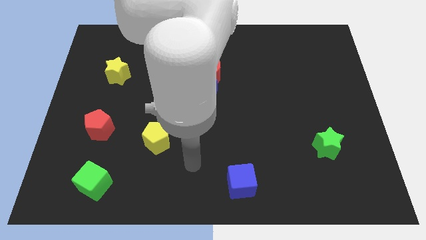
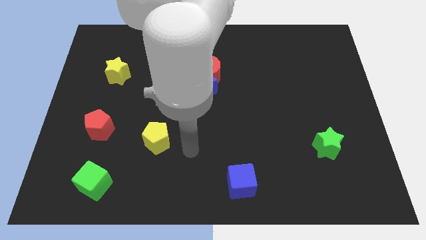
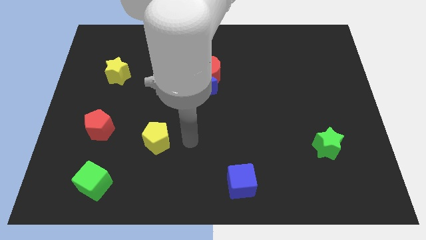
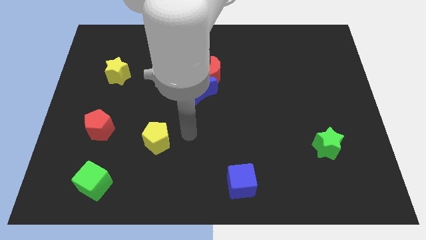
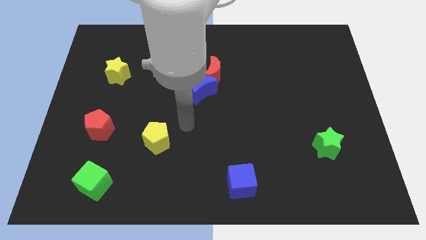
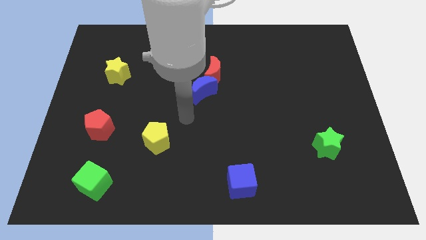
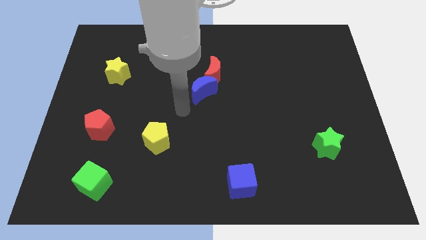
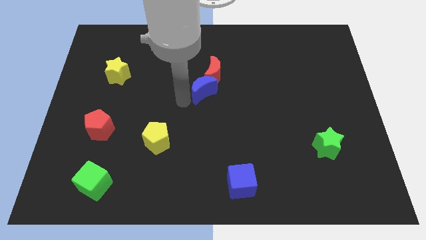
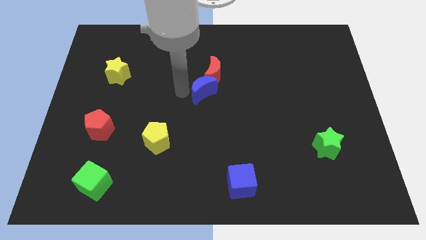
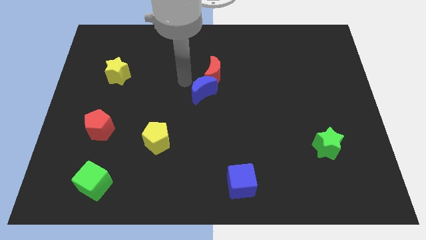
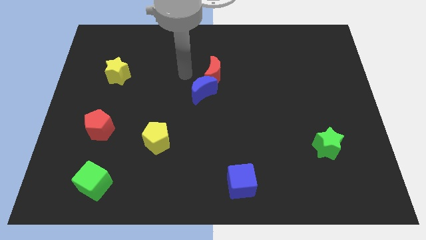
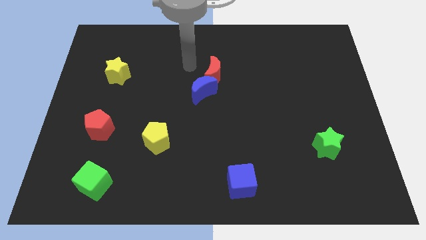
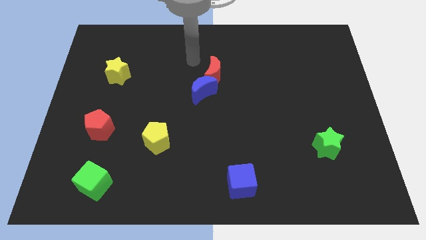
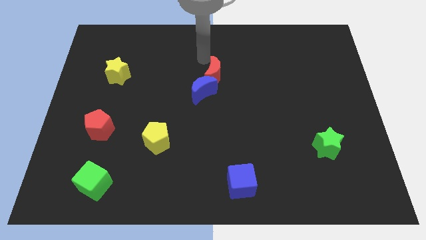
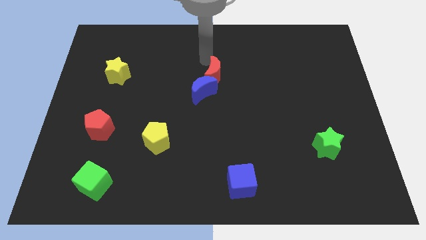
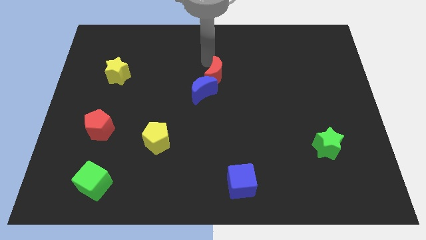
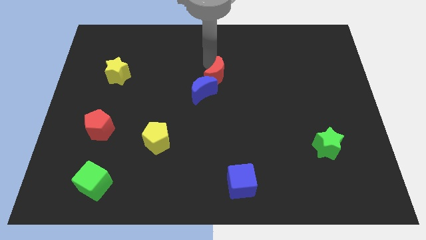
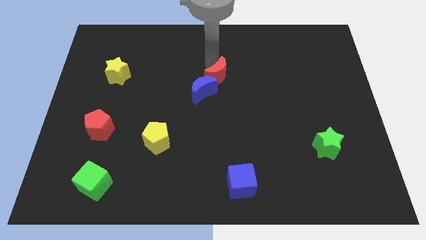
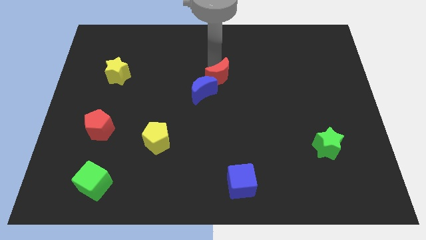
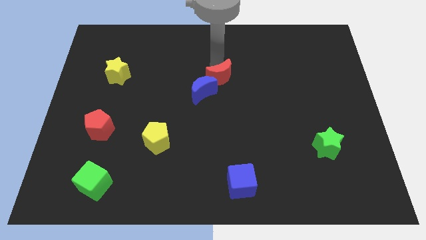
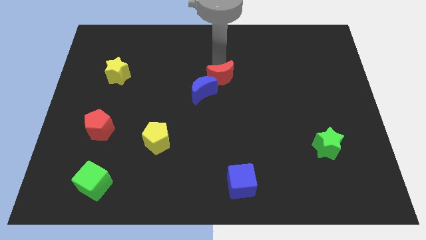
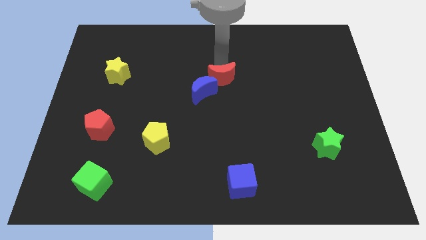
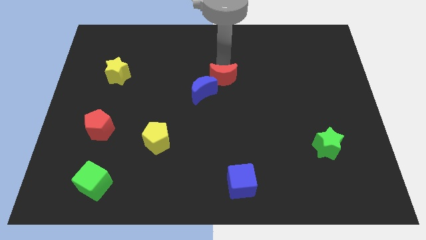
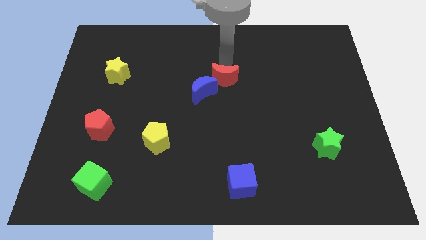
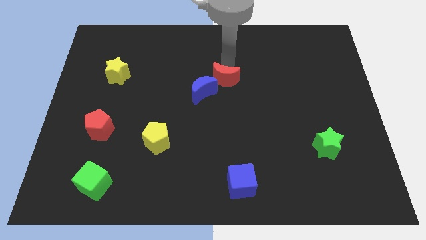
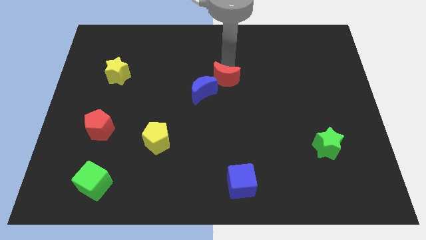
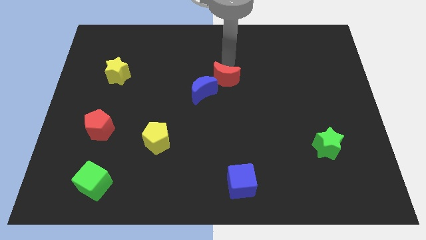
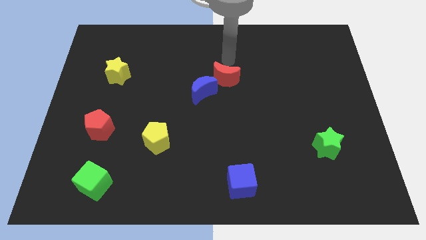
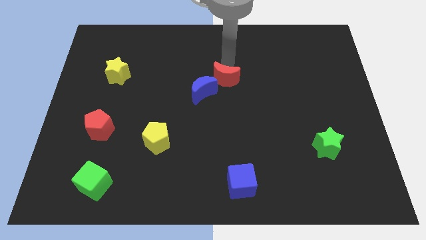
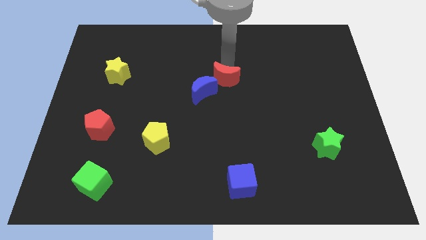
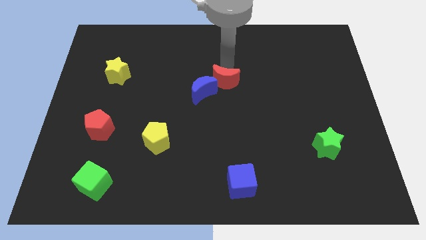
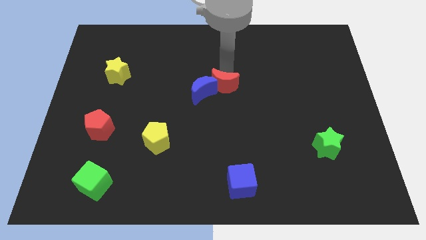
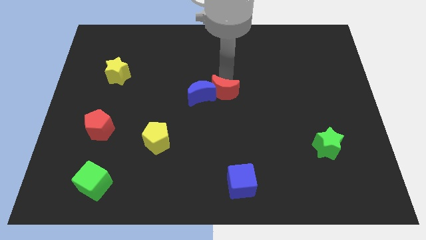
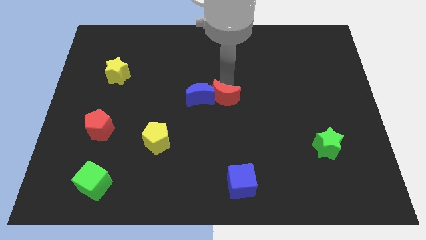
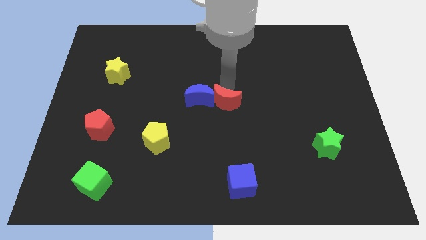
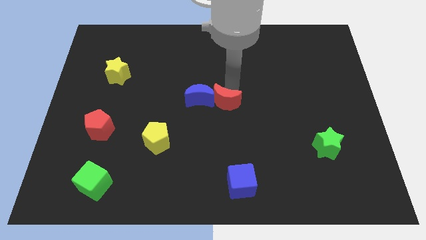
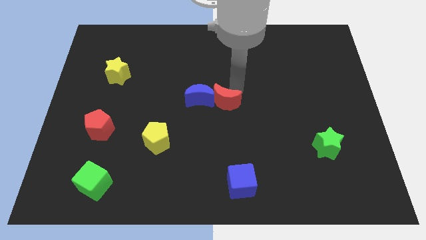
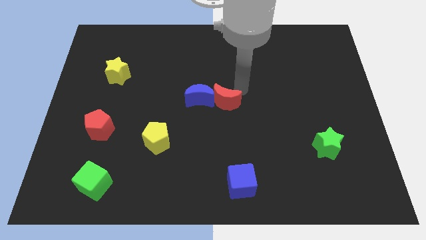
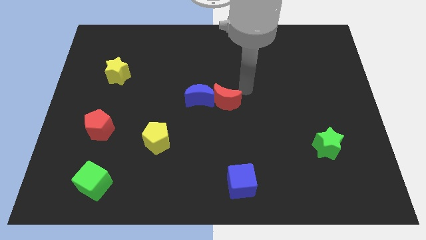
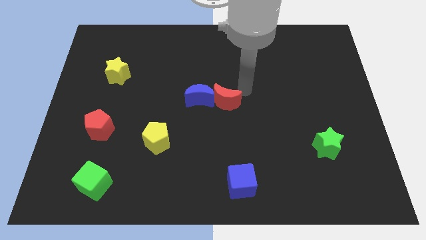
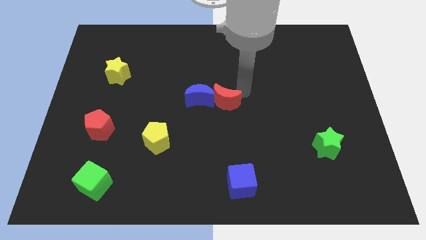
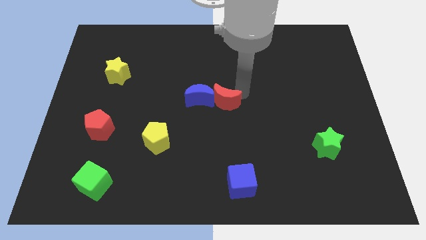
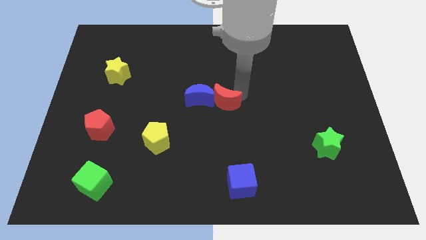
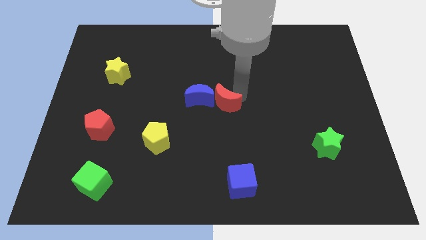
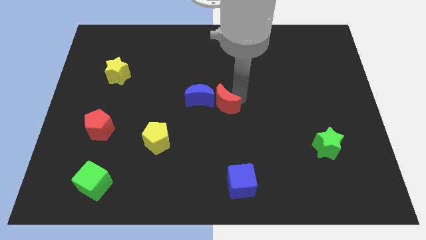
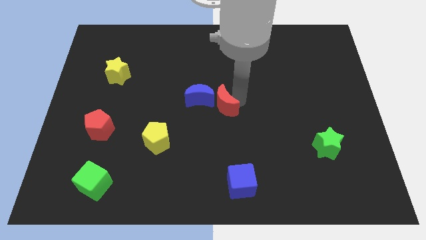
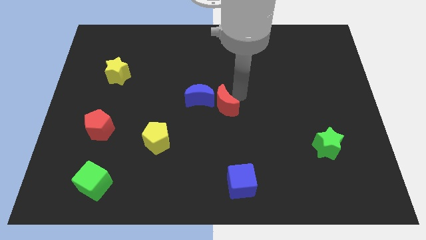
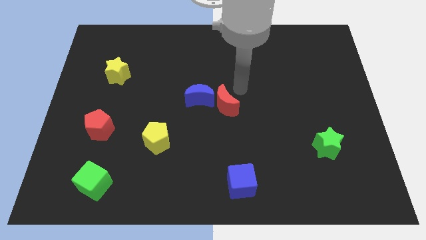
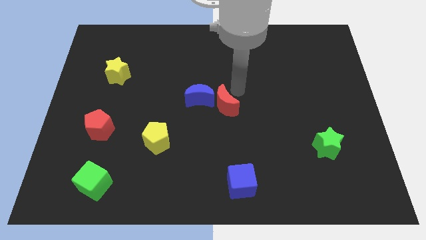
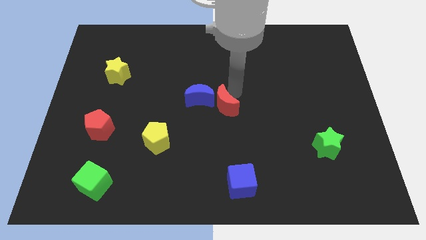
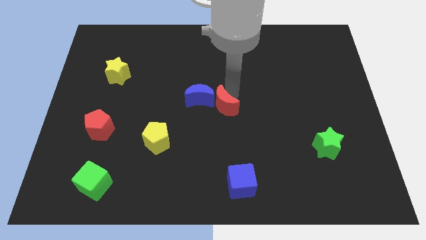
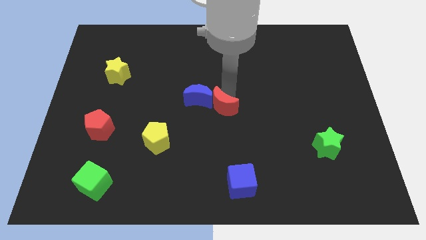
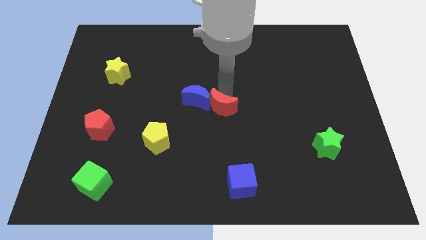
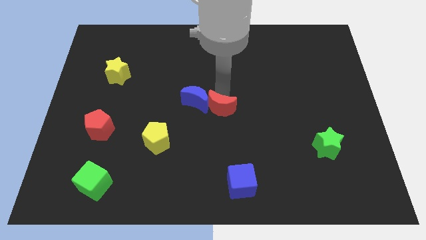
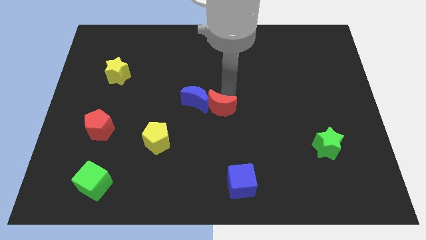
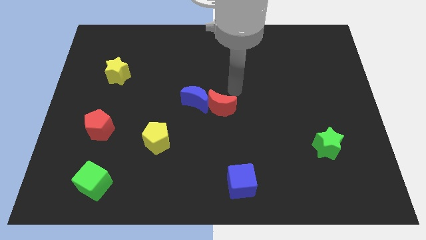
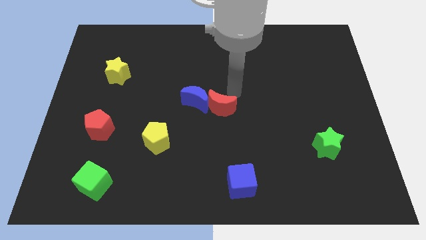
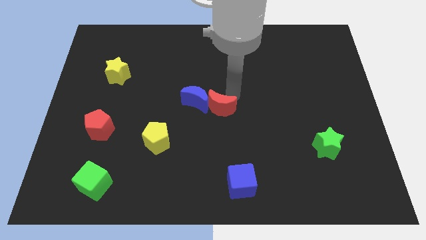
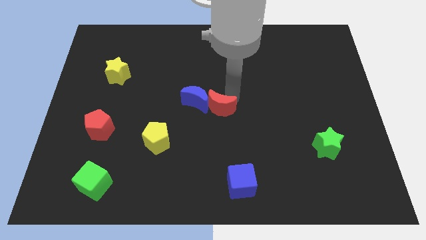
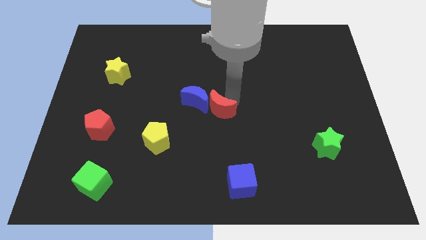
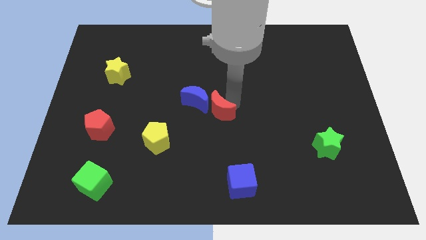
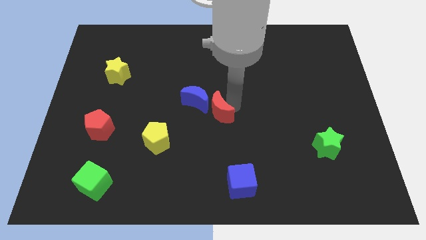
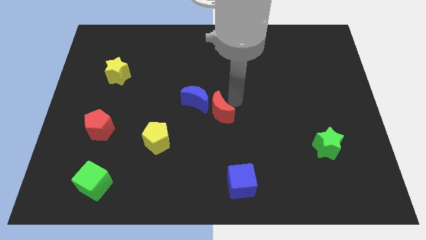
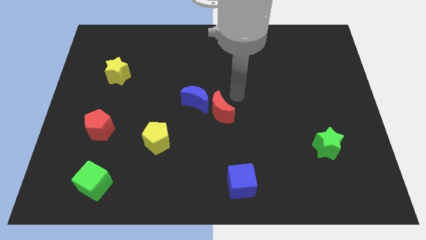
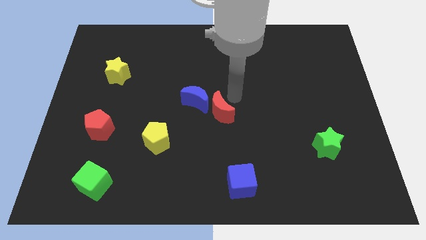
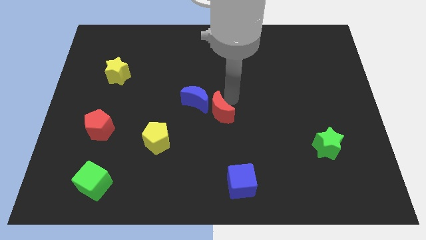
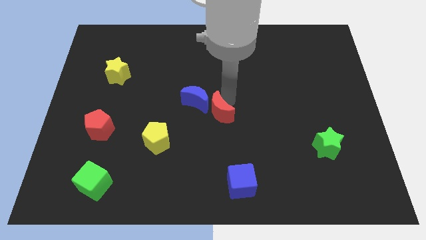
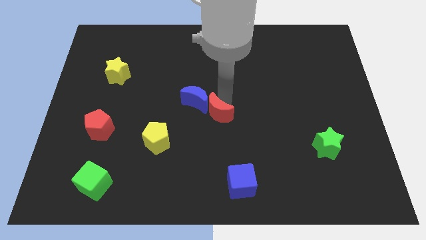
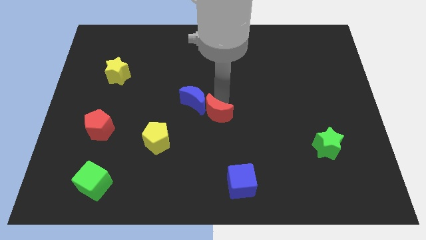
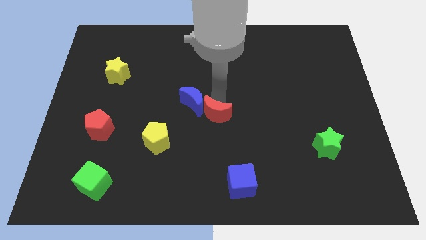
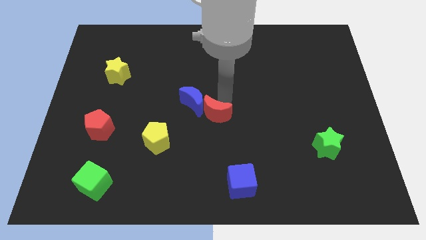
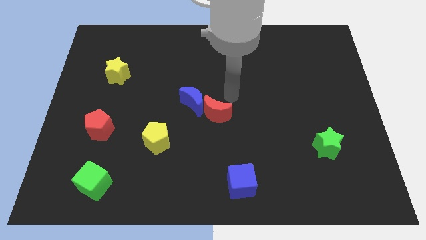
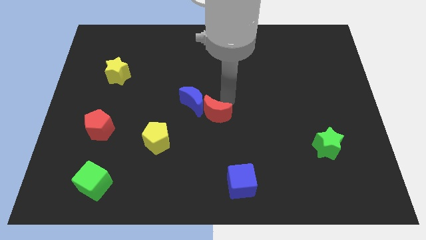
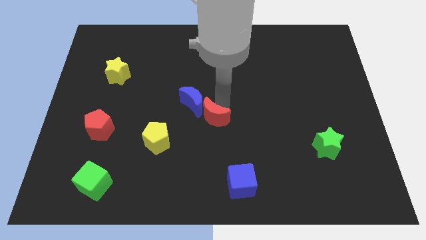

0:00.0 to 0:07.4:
move the red moon below the blue moon
